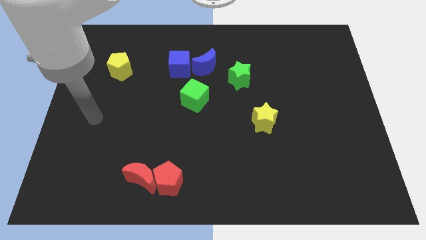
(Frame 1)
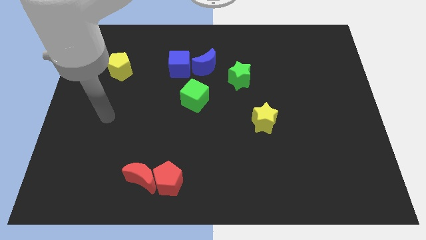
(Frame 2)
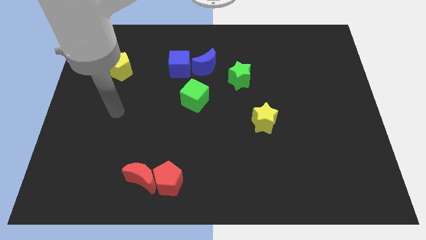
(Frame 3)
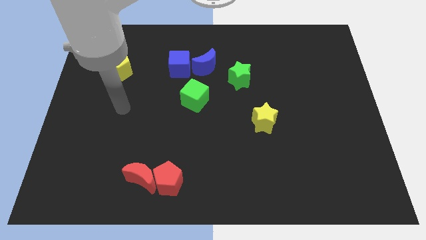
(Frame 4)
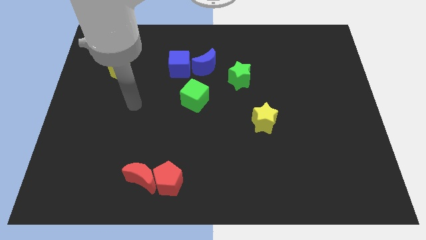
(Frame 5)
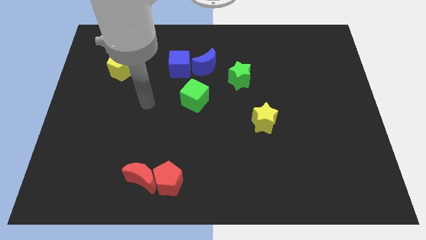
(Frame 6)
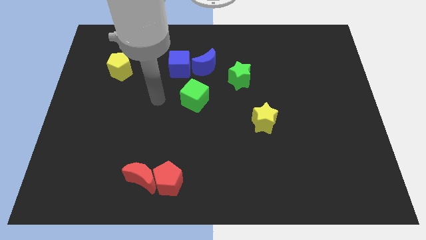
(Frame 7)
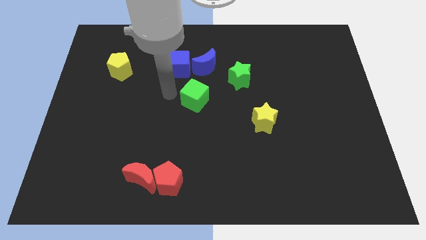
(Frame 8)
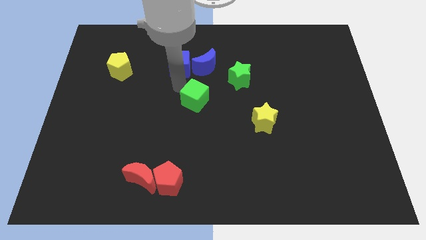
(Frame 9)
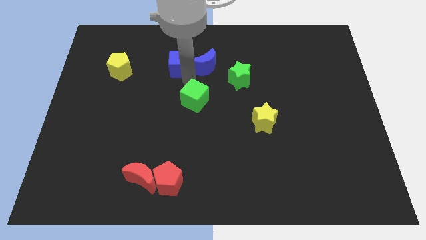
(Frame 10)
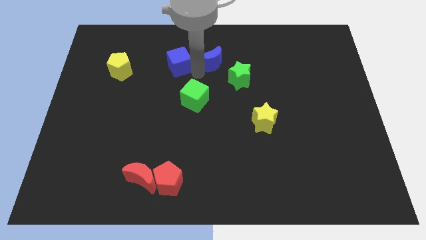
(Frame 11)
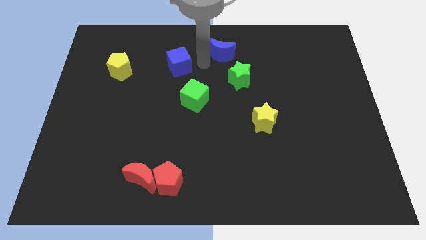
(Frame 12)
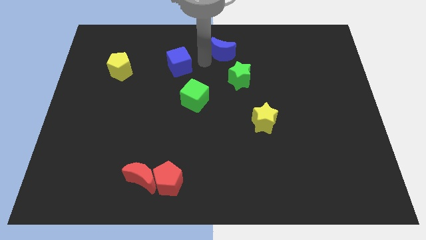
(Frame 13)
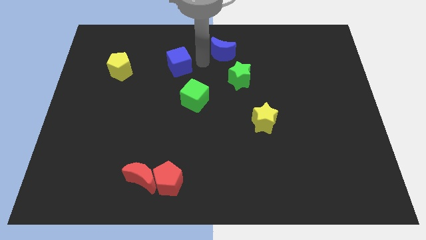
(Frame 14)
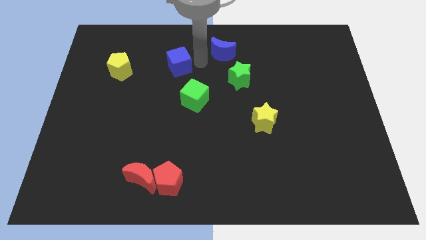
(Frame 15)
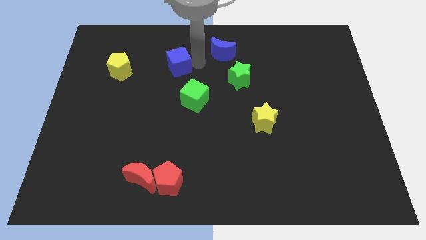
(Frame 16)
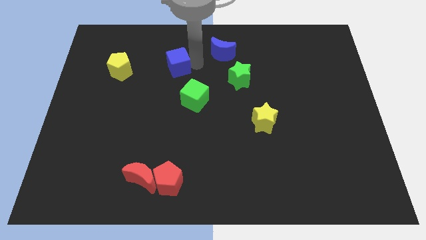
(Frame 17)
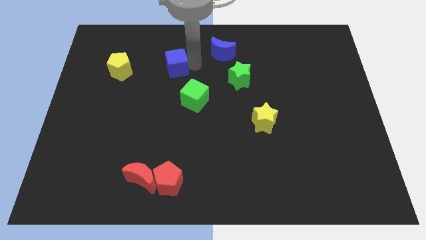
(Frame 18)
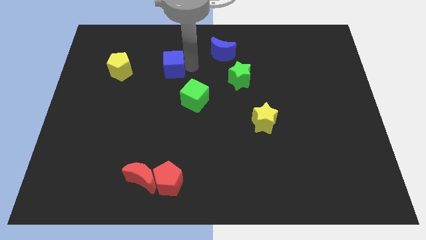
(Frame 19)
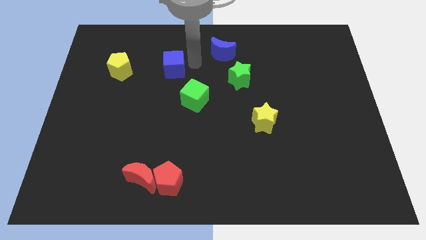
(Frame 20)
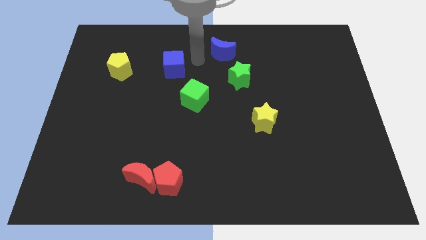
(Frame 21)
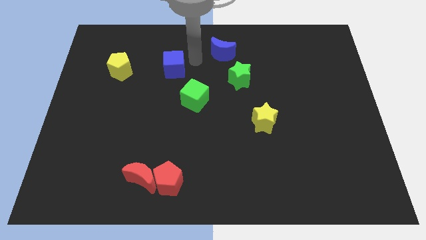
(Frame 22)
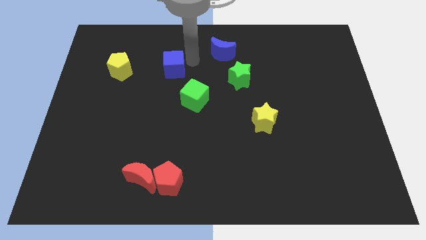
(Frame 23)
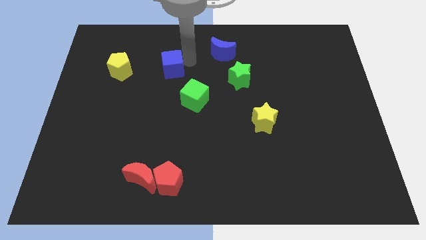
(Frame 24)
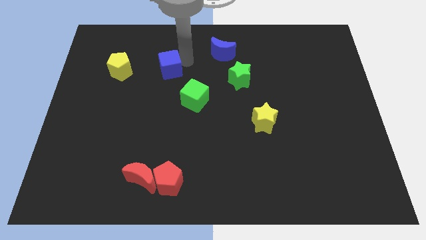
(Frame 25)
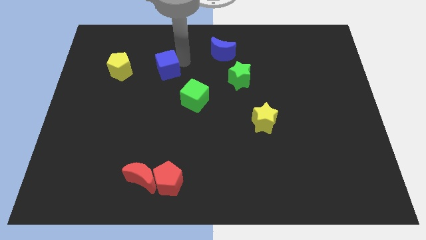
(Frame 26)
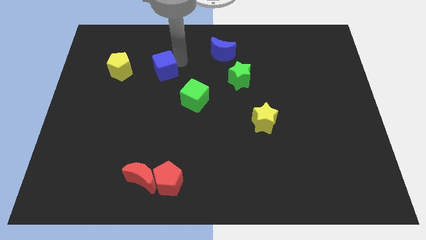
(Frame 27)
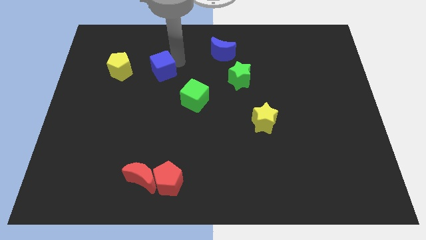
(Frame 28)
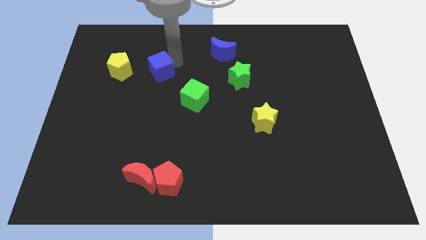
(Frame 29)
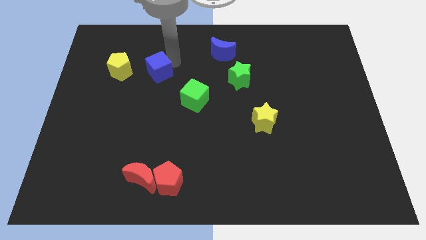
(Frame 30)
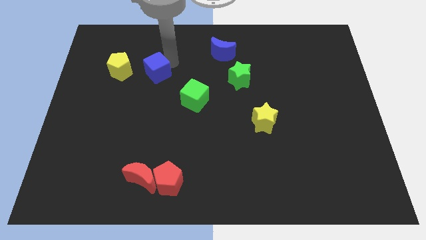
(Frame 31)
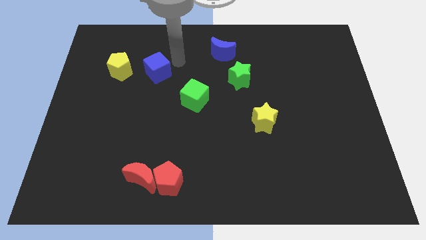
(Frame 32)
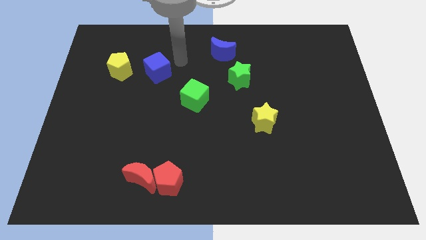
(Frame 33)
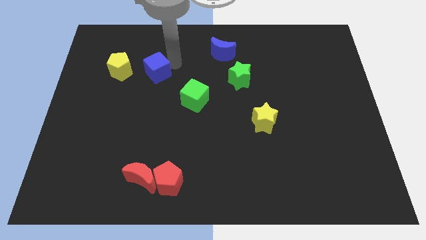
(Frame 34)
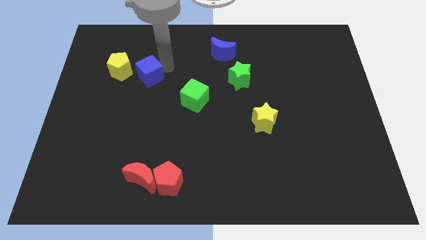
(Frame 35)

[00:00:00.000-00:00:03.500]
slightly push the blue cube left

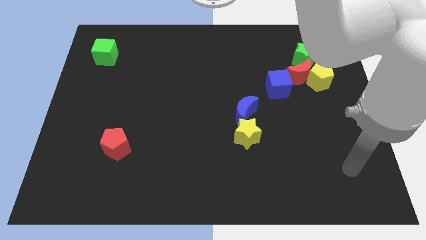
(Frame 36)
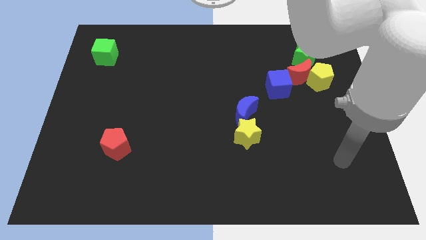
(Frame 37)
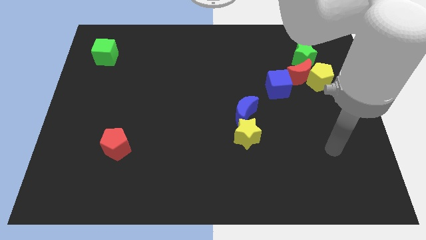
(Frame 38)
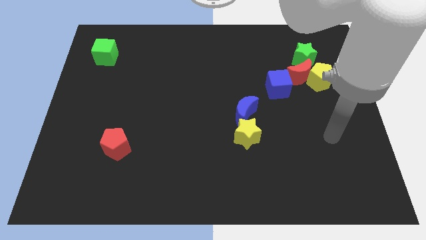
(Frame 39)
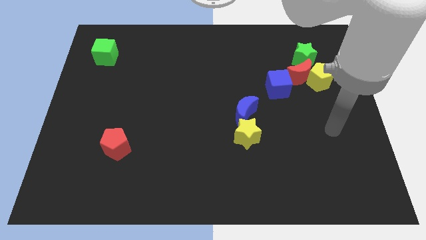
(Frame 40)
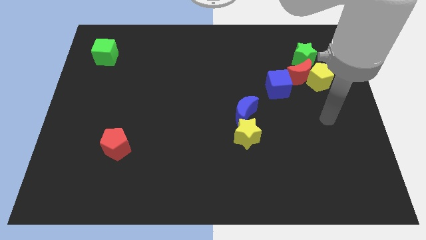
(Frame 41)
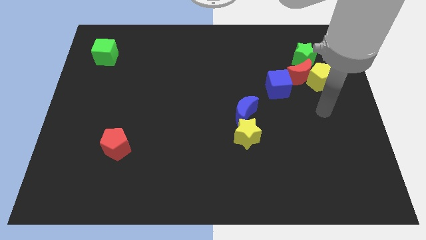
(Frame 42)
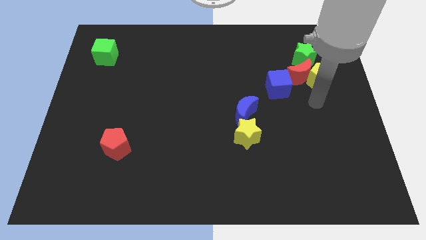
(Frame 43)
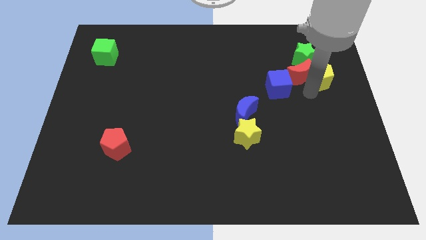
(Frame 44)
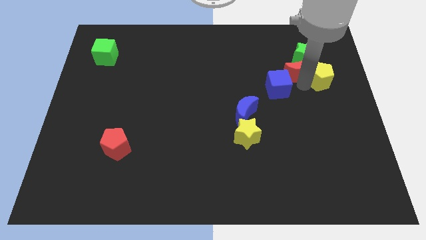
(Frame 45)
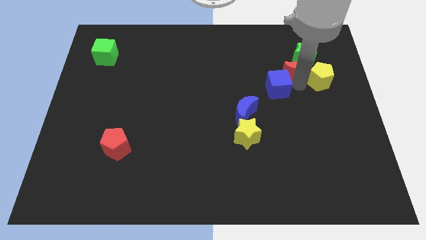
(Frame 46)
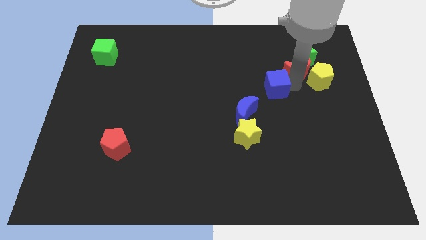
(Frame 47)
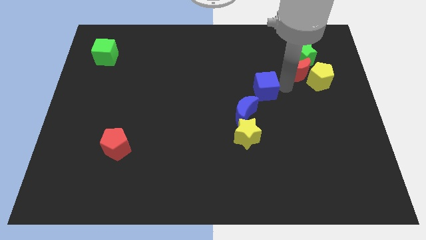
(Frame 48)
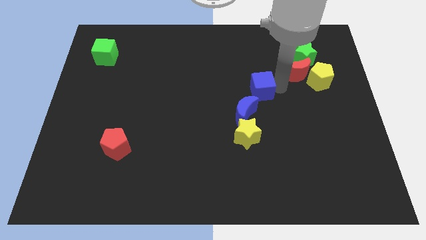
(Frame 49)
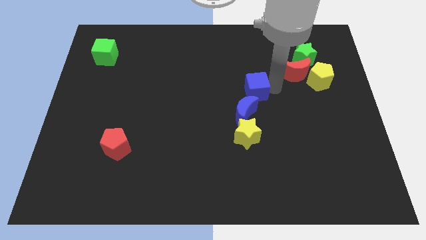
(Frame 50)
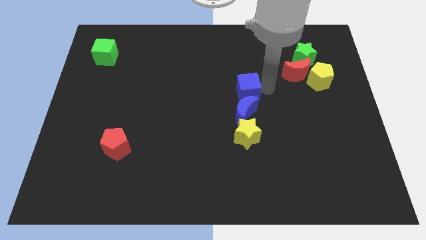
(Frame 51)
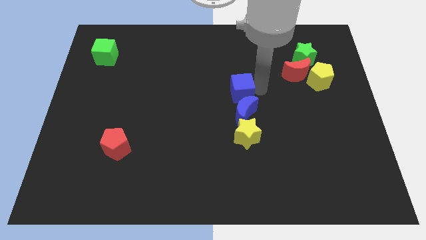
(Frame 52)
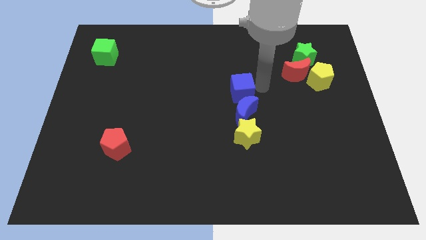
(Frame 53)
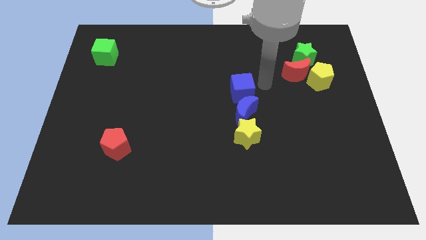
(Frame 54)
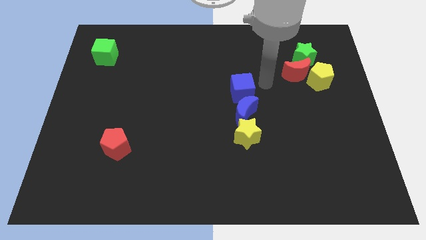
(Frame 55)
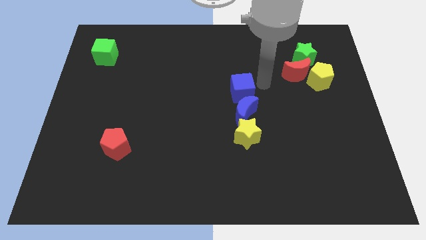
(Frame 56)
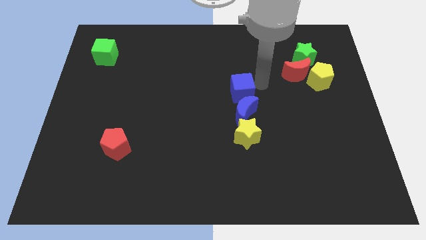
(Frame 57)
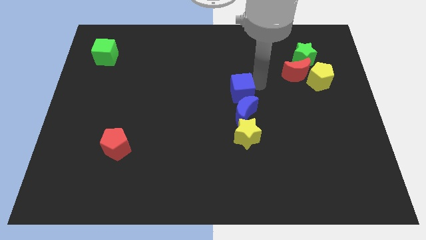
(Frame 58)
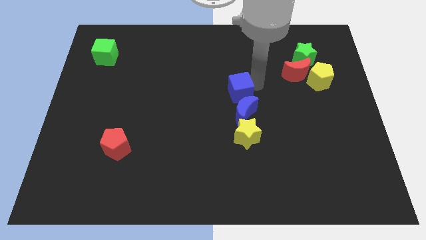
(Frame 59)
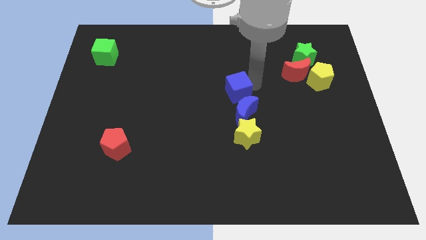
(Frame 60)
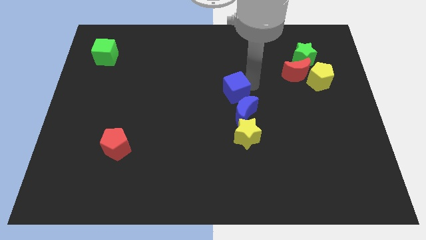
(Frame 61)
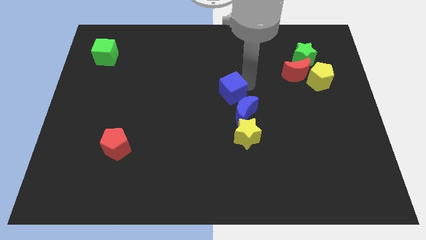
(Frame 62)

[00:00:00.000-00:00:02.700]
push the blue cube downwards and left diagonally a little

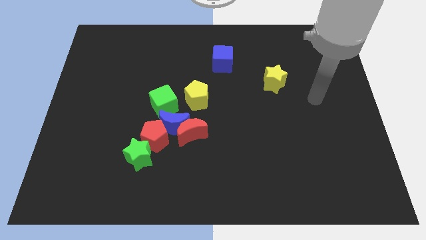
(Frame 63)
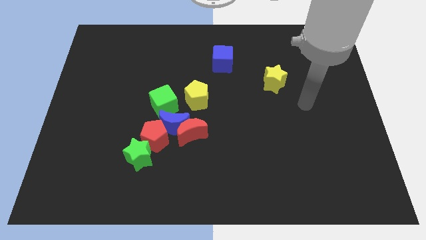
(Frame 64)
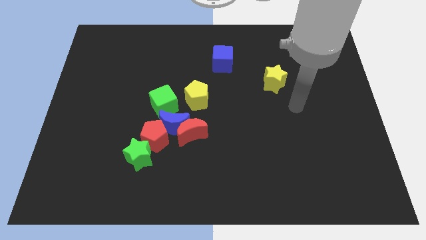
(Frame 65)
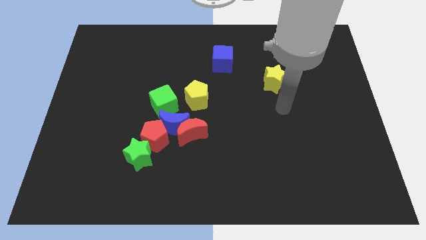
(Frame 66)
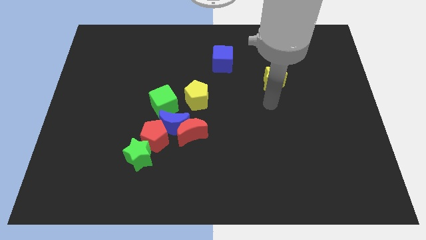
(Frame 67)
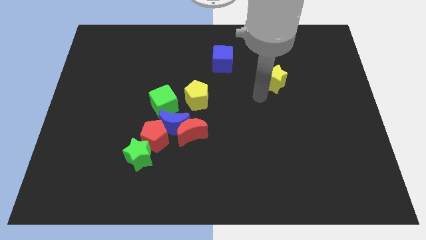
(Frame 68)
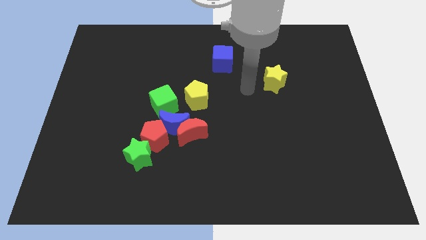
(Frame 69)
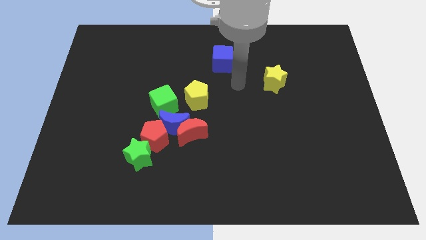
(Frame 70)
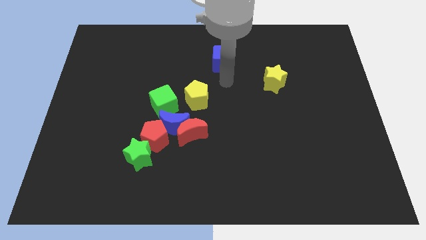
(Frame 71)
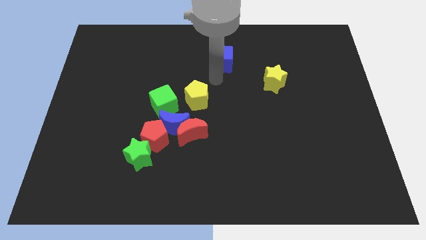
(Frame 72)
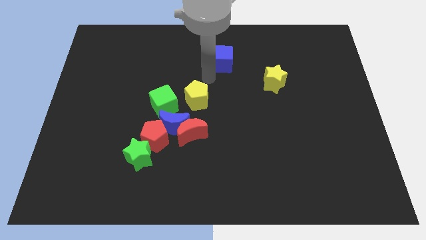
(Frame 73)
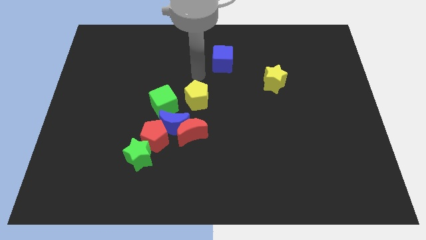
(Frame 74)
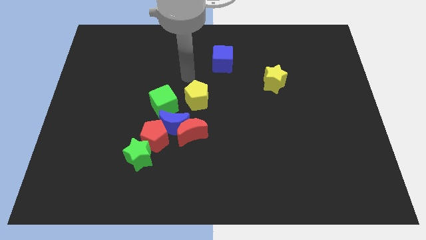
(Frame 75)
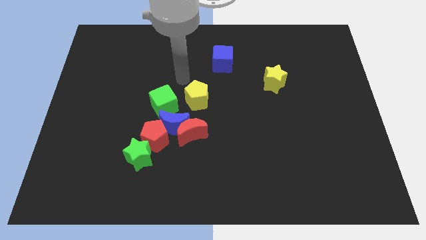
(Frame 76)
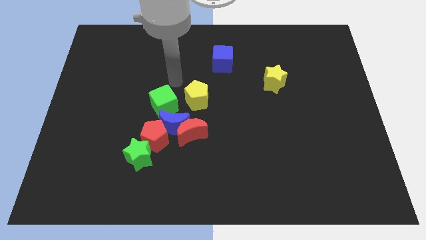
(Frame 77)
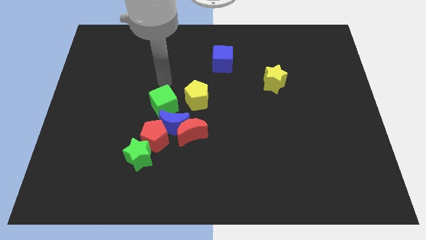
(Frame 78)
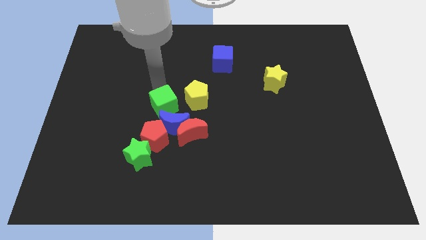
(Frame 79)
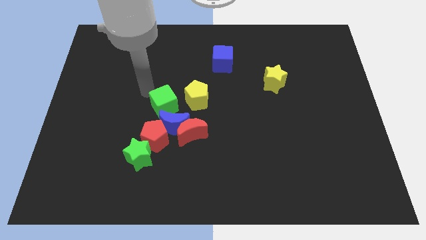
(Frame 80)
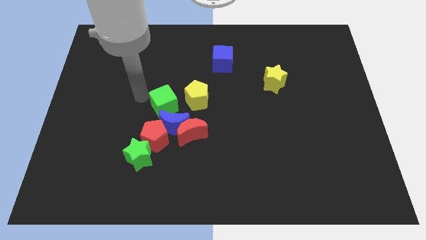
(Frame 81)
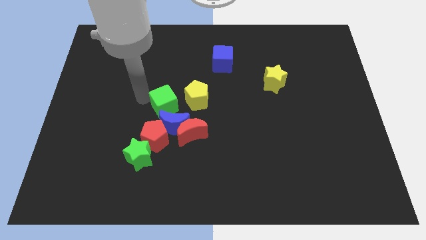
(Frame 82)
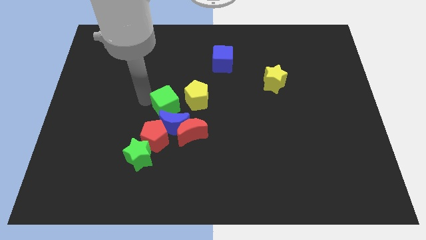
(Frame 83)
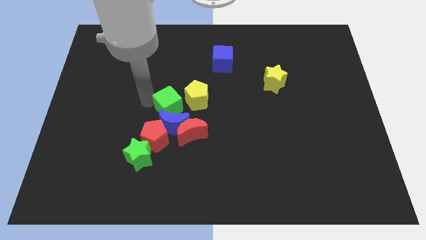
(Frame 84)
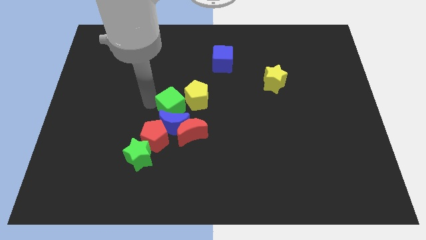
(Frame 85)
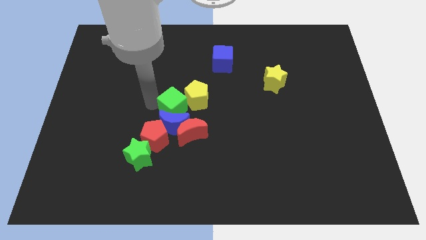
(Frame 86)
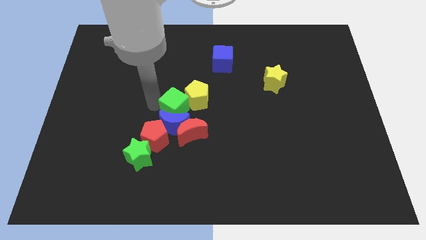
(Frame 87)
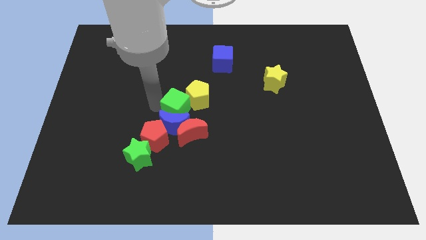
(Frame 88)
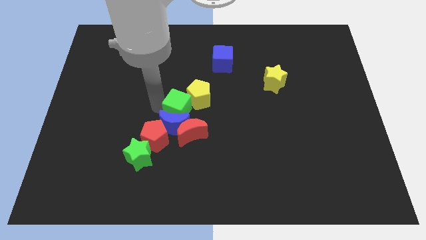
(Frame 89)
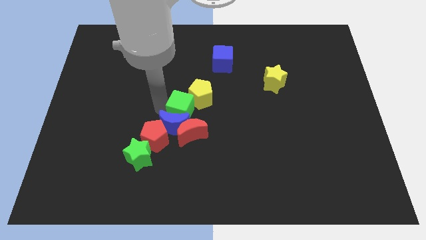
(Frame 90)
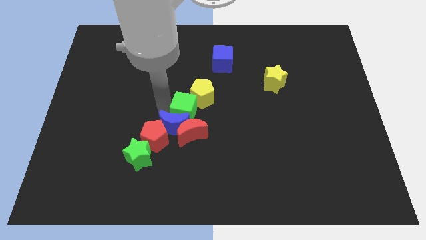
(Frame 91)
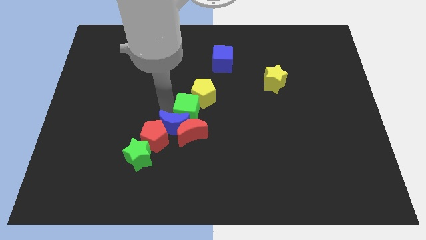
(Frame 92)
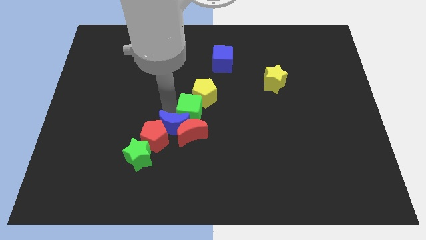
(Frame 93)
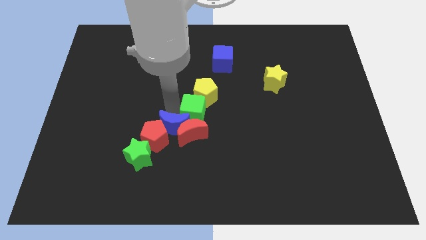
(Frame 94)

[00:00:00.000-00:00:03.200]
move the green cube a little to the right
